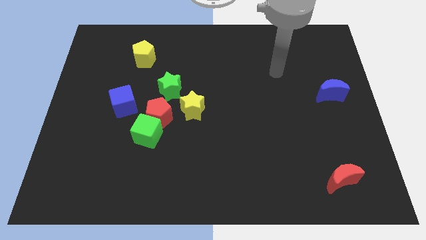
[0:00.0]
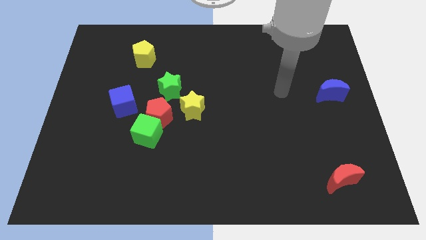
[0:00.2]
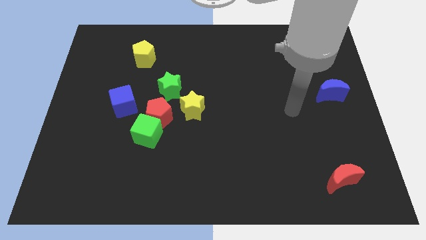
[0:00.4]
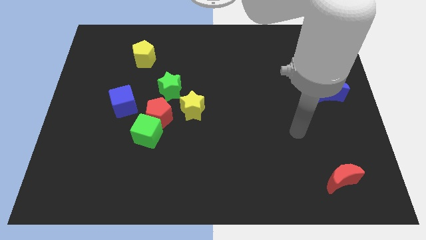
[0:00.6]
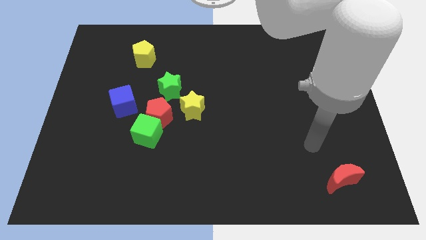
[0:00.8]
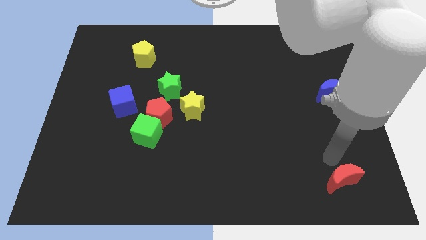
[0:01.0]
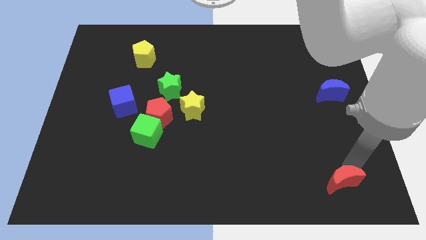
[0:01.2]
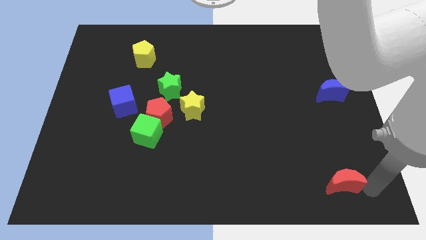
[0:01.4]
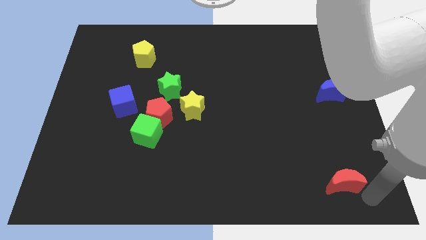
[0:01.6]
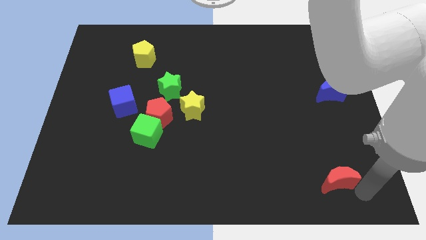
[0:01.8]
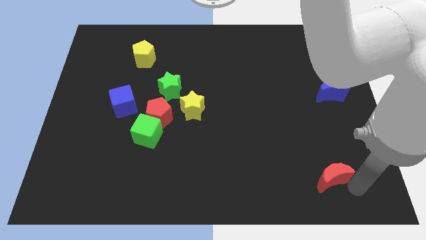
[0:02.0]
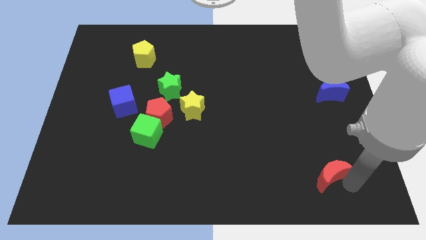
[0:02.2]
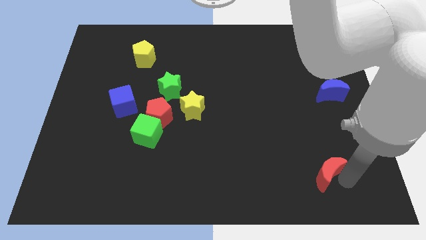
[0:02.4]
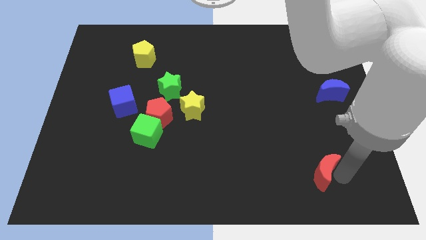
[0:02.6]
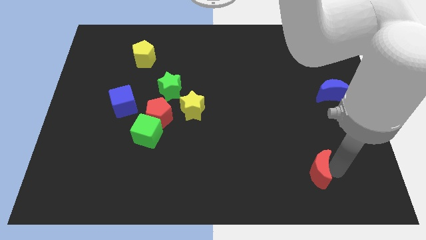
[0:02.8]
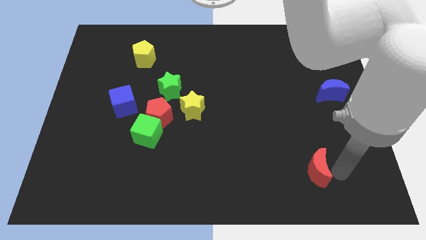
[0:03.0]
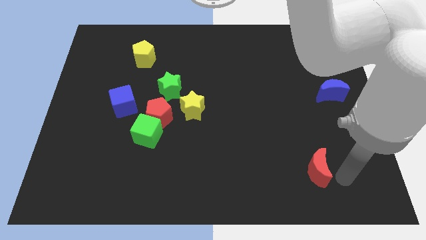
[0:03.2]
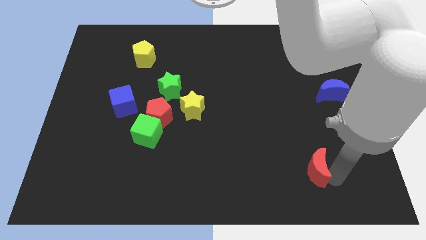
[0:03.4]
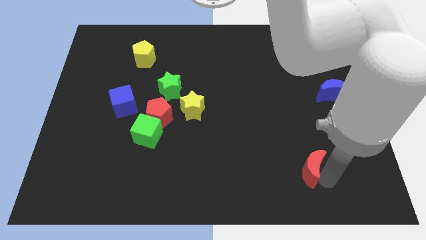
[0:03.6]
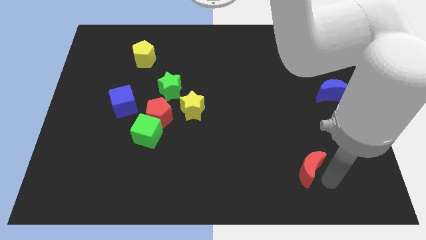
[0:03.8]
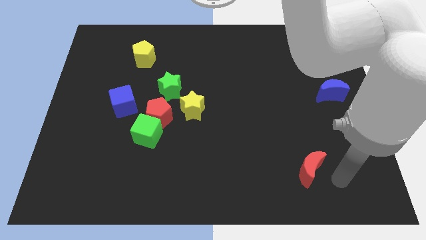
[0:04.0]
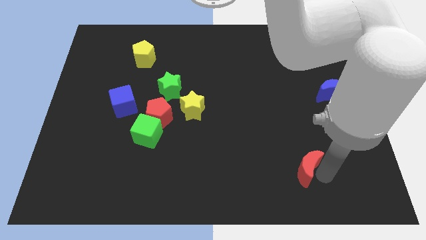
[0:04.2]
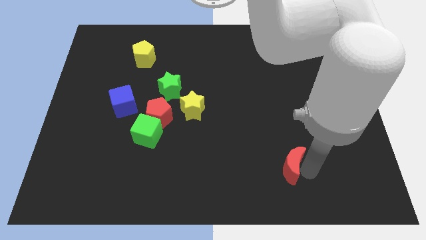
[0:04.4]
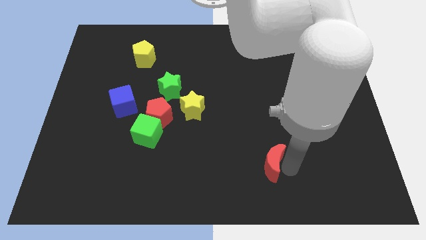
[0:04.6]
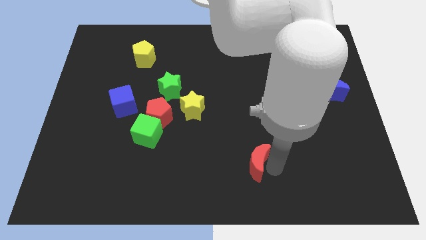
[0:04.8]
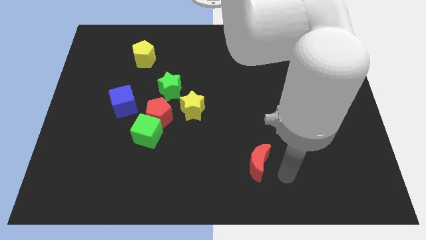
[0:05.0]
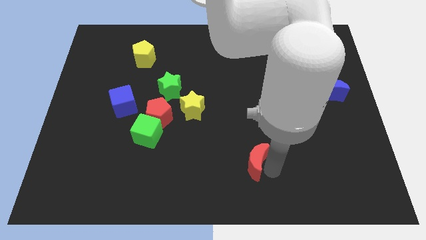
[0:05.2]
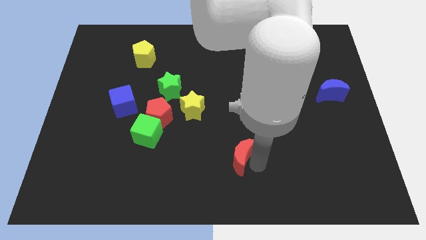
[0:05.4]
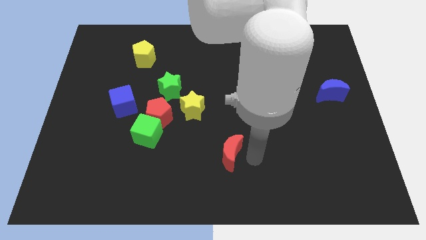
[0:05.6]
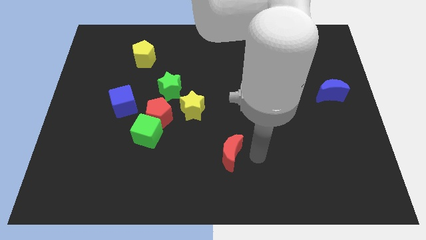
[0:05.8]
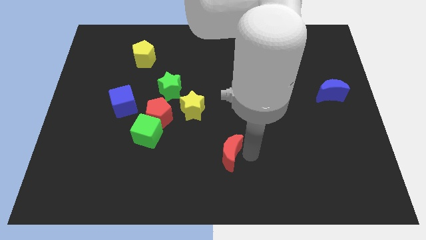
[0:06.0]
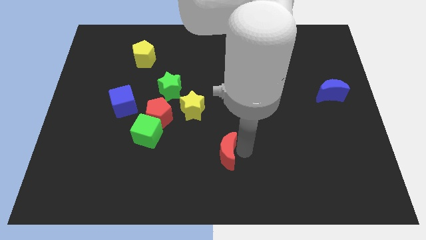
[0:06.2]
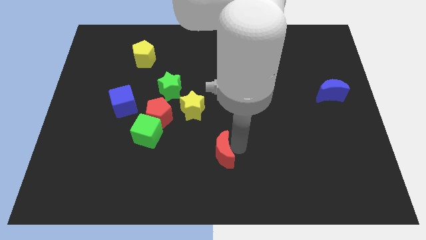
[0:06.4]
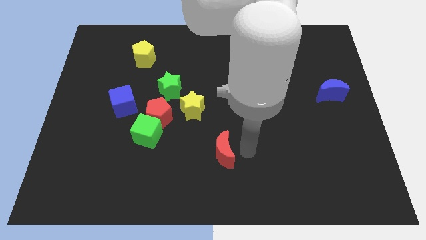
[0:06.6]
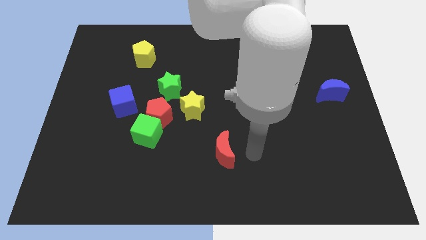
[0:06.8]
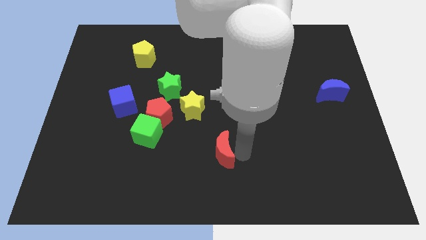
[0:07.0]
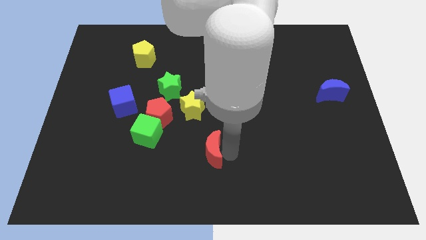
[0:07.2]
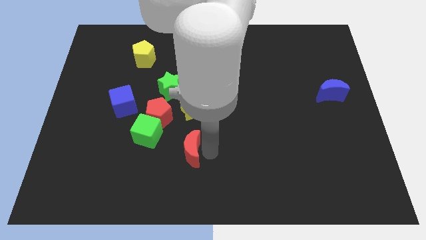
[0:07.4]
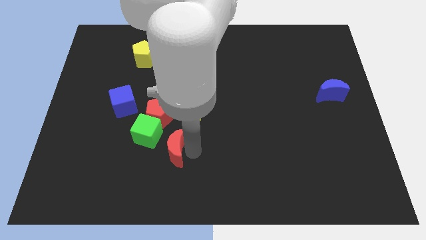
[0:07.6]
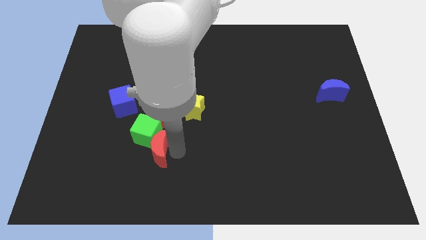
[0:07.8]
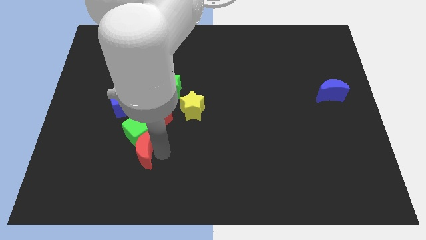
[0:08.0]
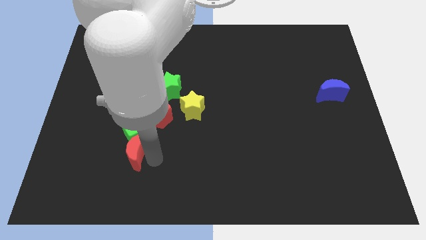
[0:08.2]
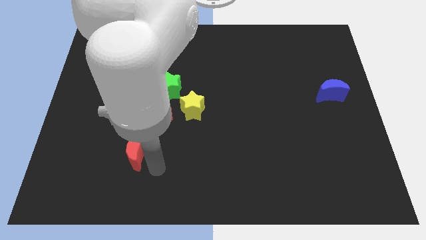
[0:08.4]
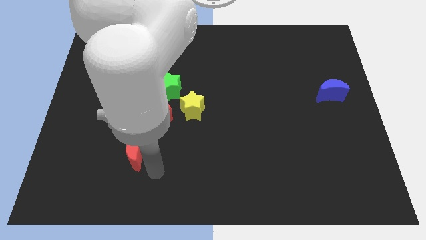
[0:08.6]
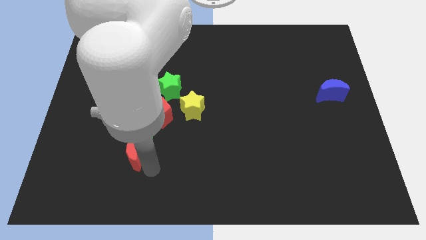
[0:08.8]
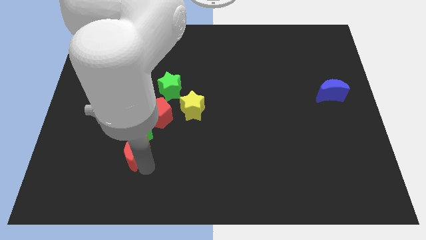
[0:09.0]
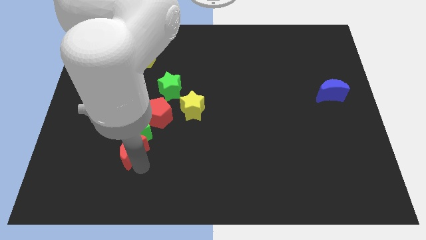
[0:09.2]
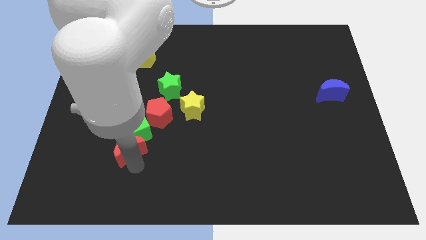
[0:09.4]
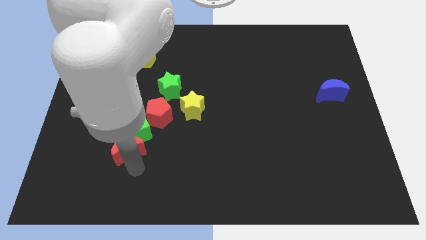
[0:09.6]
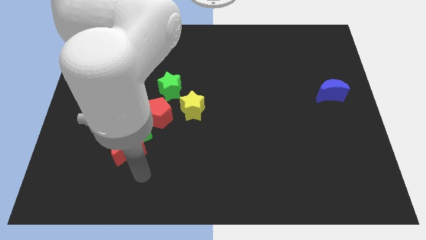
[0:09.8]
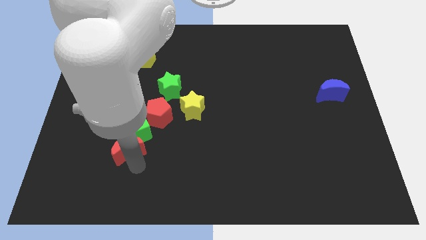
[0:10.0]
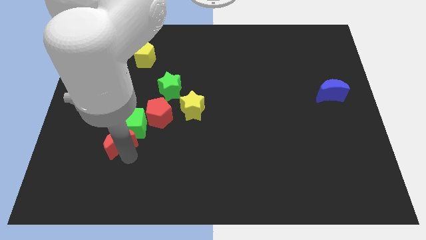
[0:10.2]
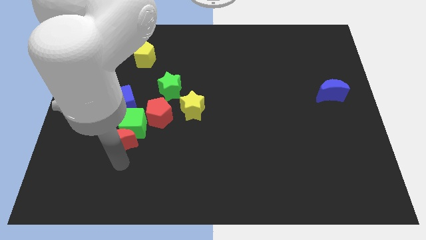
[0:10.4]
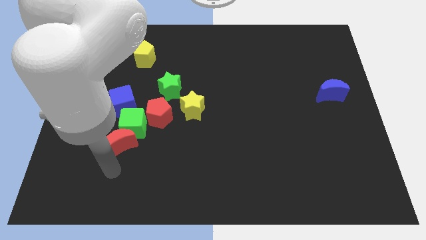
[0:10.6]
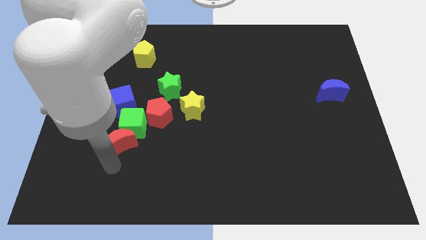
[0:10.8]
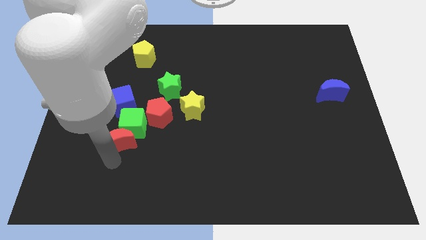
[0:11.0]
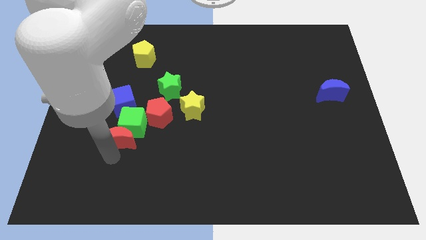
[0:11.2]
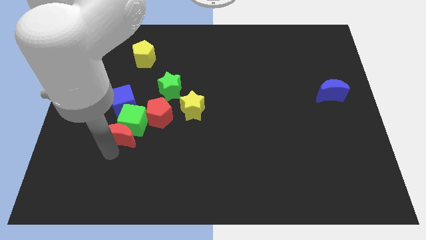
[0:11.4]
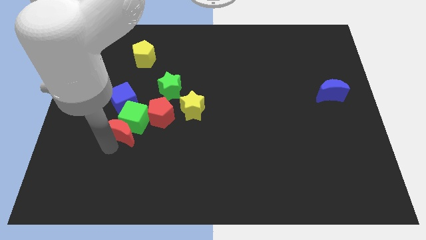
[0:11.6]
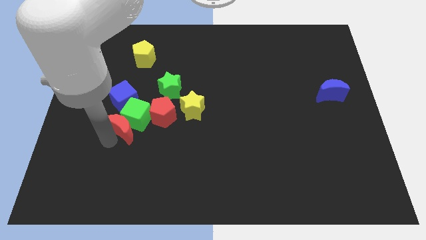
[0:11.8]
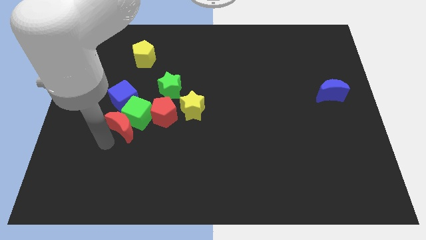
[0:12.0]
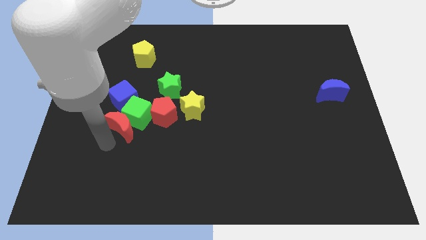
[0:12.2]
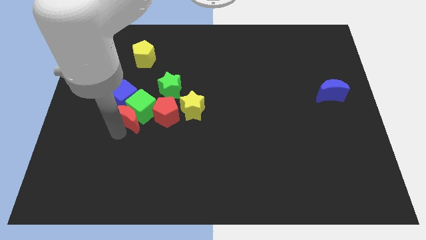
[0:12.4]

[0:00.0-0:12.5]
put the red moon to the bottom left side of the green star

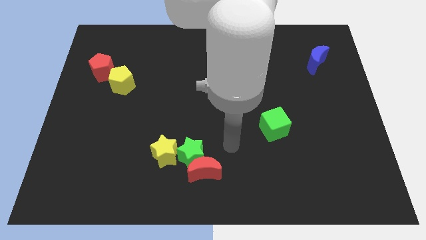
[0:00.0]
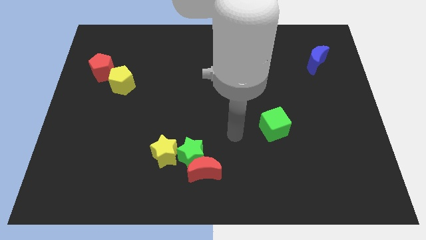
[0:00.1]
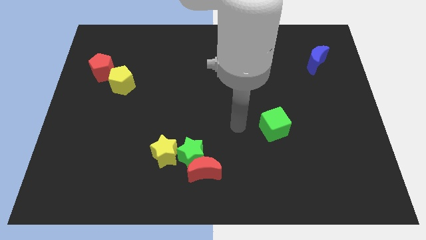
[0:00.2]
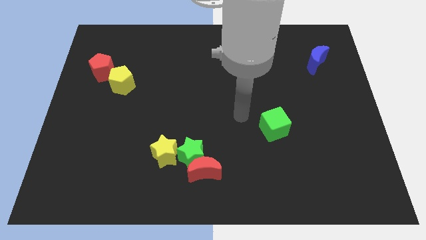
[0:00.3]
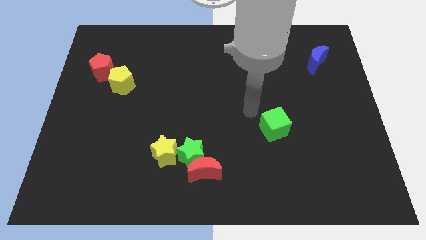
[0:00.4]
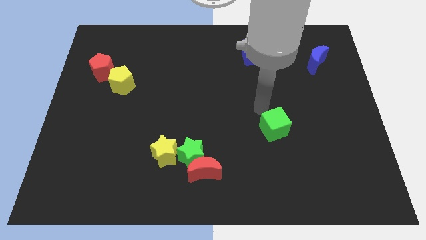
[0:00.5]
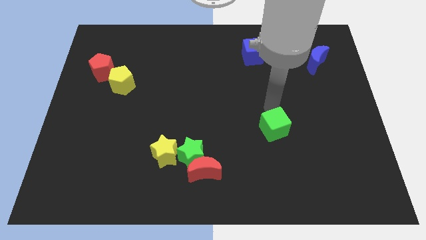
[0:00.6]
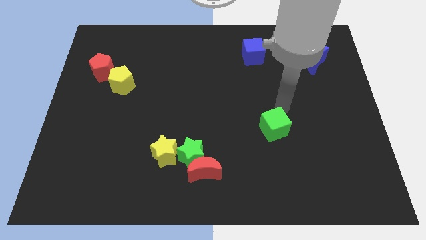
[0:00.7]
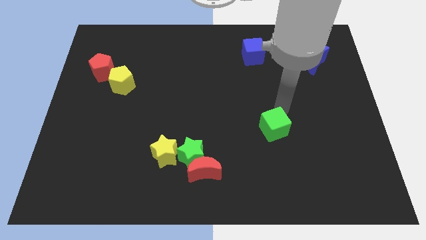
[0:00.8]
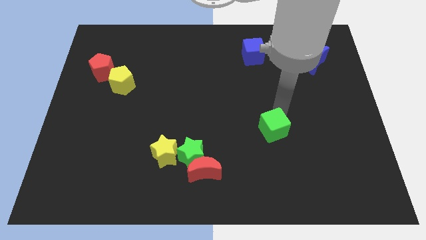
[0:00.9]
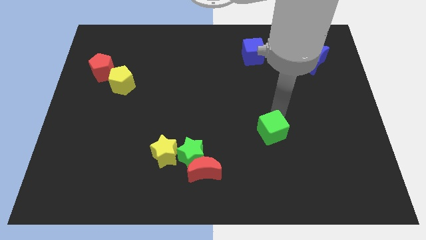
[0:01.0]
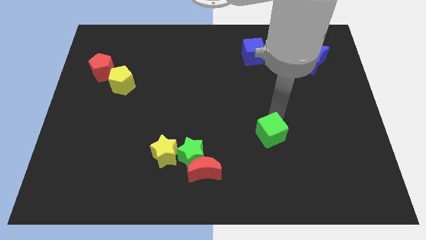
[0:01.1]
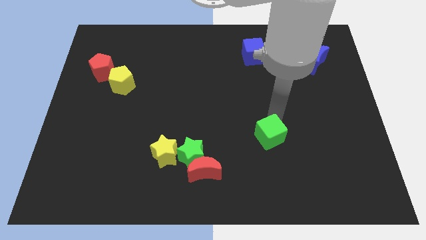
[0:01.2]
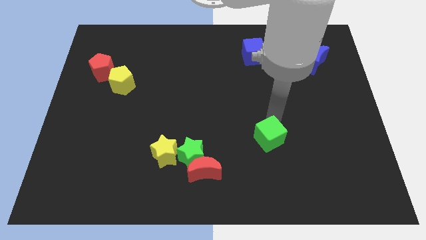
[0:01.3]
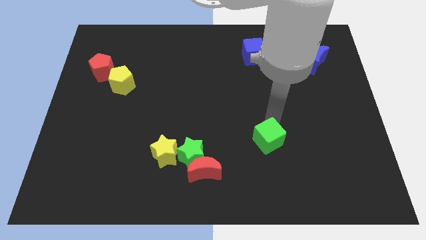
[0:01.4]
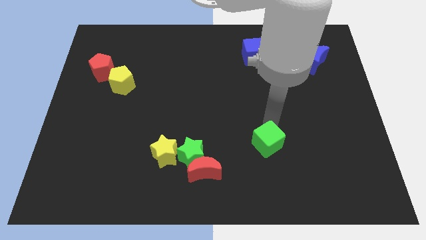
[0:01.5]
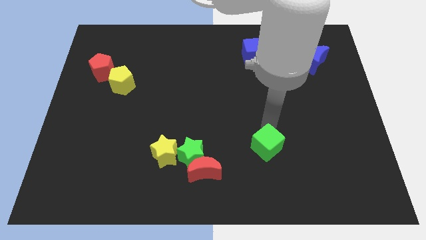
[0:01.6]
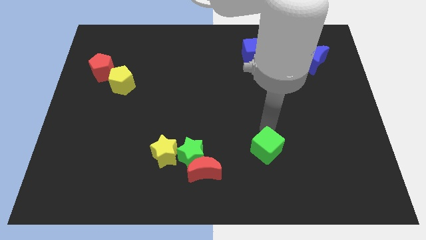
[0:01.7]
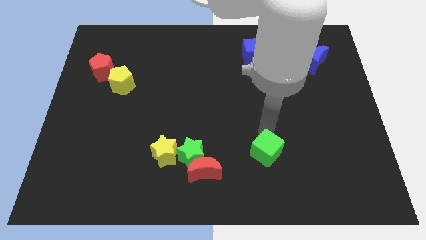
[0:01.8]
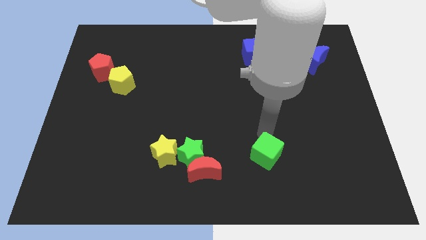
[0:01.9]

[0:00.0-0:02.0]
move the green cube to the right side of the red moon

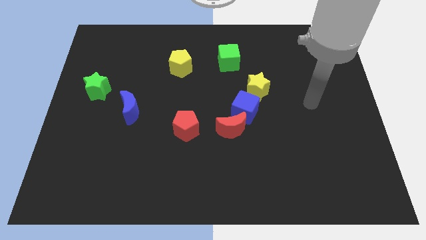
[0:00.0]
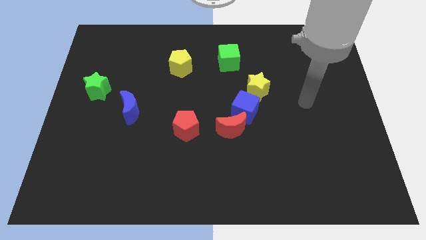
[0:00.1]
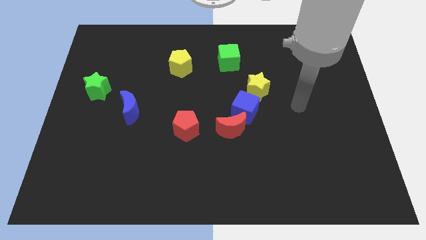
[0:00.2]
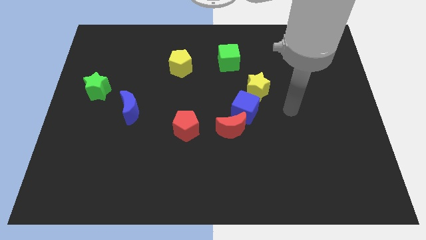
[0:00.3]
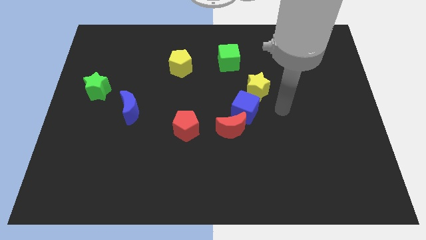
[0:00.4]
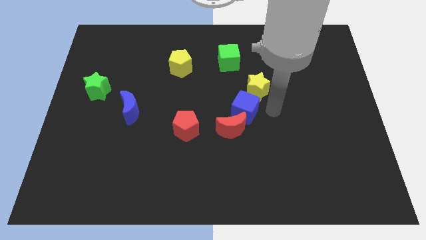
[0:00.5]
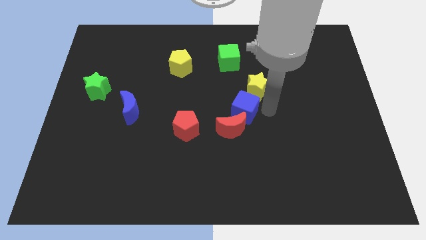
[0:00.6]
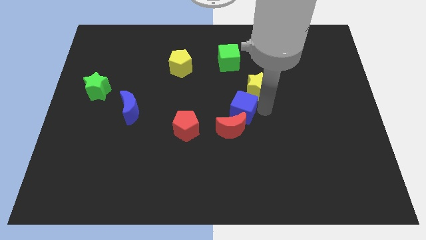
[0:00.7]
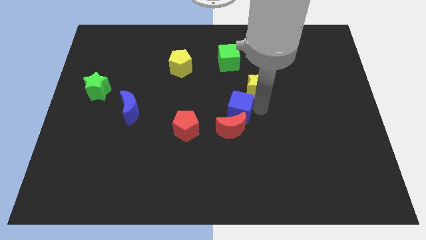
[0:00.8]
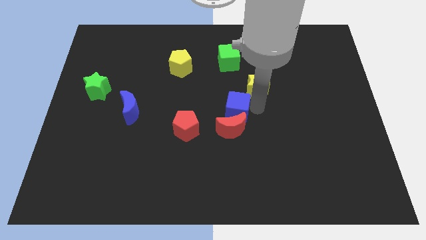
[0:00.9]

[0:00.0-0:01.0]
push the blue cube to the top left side of the red moon
